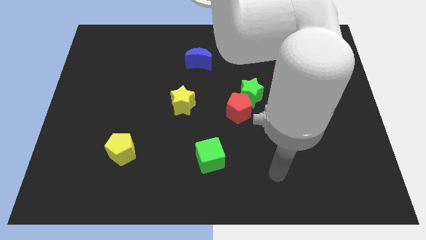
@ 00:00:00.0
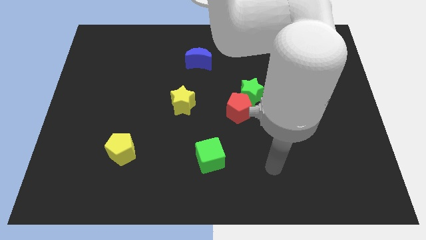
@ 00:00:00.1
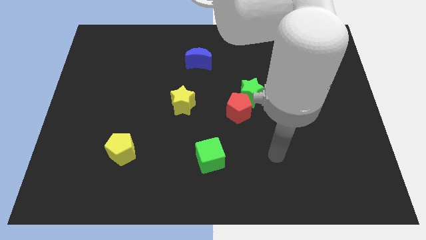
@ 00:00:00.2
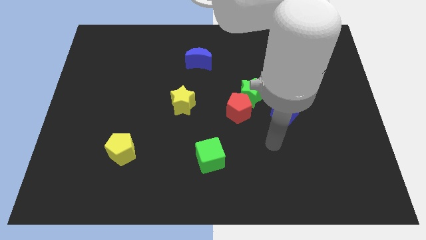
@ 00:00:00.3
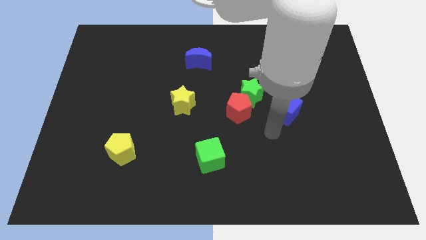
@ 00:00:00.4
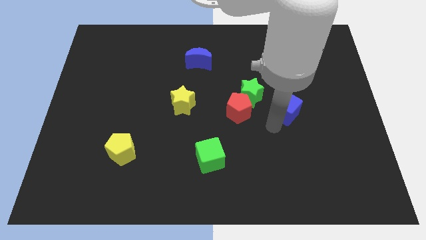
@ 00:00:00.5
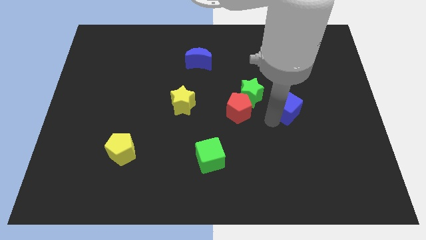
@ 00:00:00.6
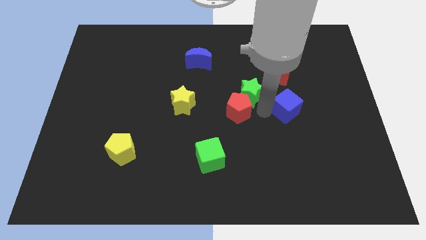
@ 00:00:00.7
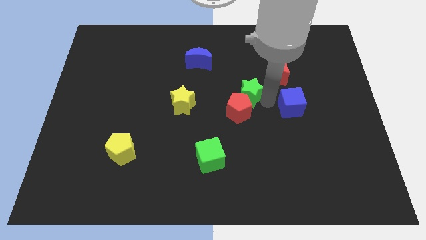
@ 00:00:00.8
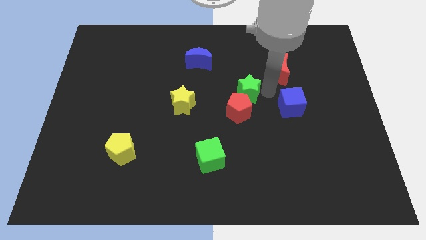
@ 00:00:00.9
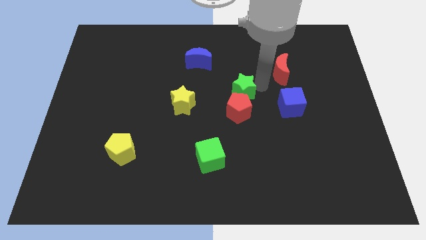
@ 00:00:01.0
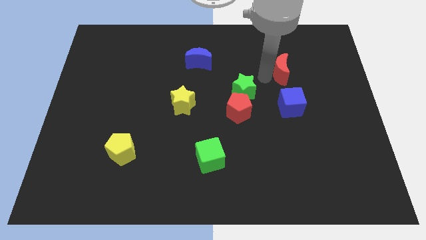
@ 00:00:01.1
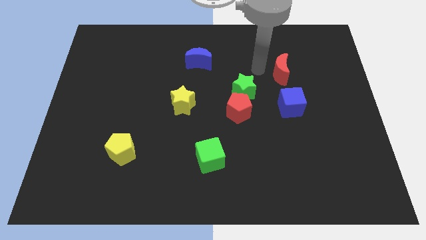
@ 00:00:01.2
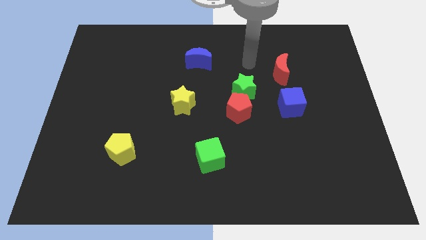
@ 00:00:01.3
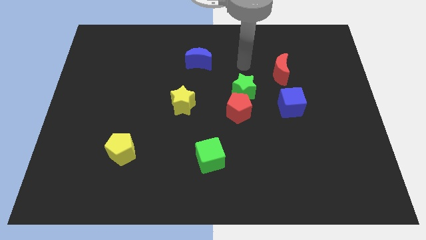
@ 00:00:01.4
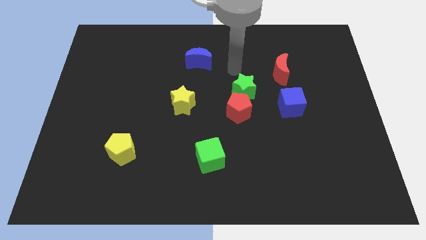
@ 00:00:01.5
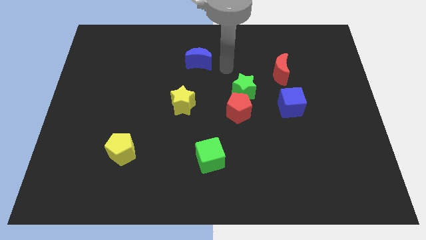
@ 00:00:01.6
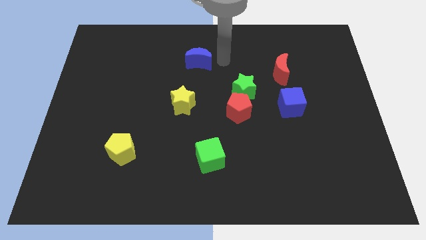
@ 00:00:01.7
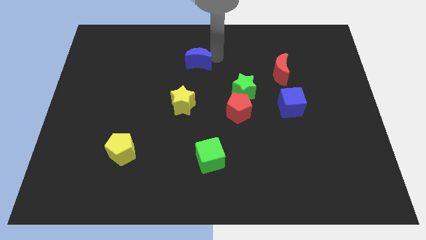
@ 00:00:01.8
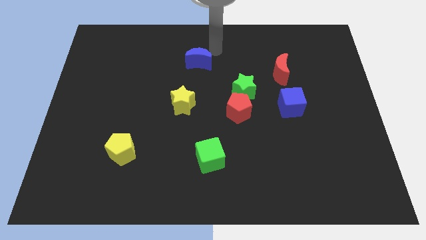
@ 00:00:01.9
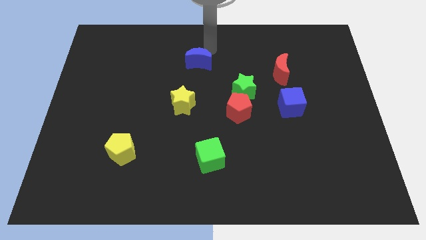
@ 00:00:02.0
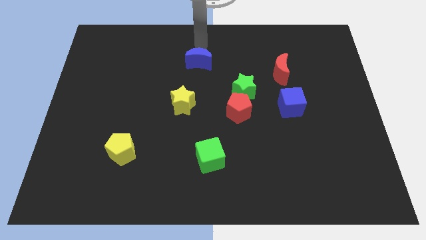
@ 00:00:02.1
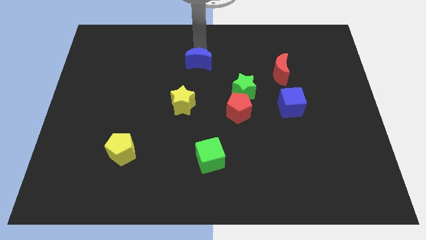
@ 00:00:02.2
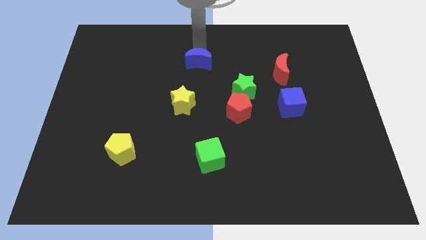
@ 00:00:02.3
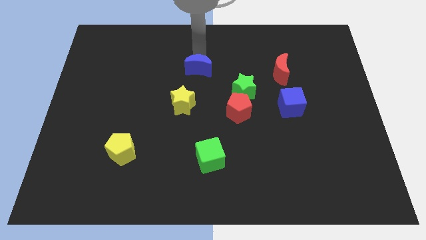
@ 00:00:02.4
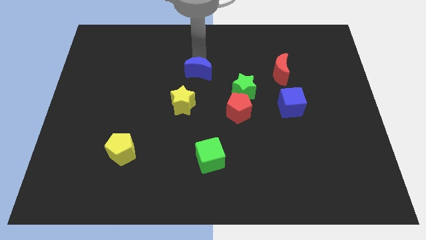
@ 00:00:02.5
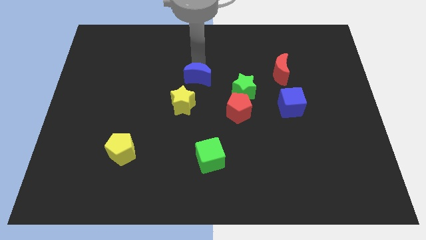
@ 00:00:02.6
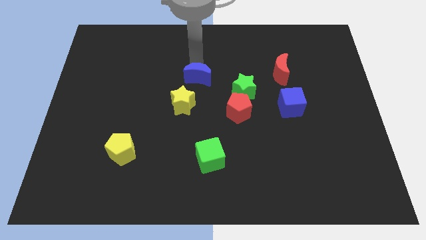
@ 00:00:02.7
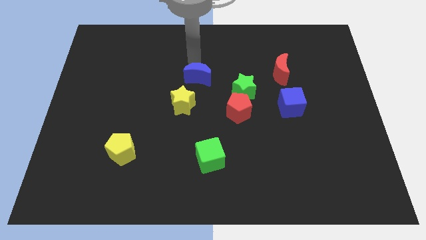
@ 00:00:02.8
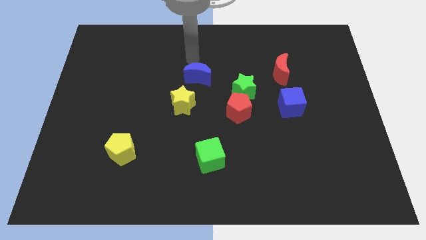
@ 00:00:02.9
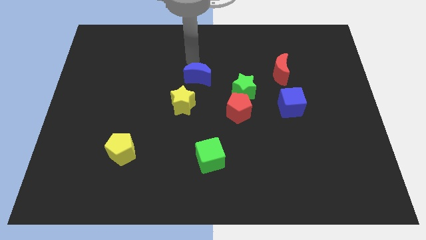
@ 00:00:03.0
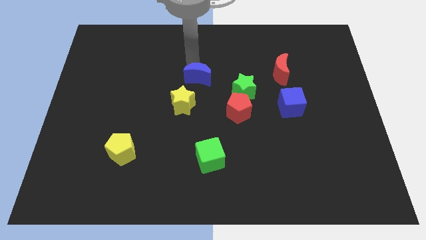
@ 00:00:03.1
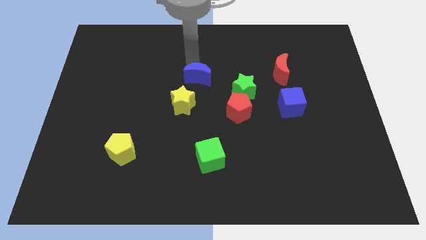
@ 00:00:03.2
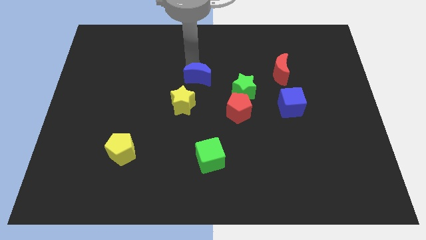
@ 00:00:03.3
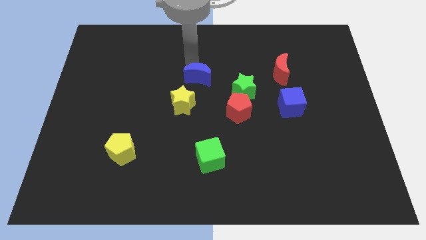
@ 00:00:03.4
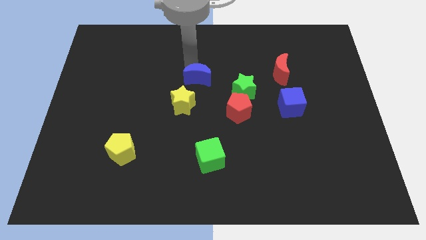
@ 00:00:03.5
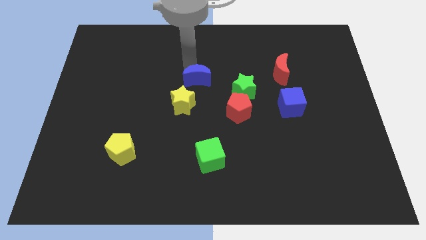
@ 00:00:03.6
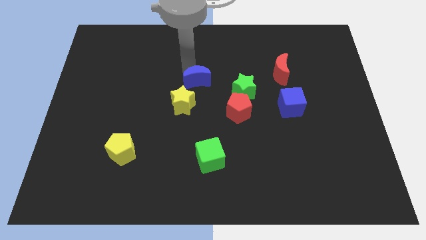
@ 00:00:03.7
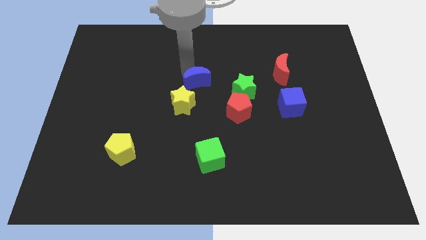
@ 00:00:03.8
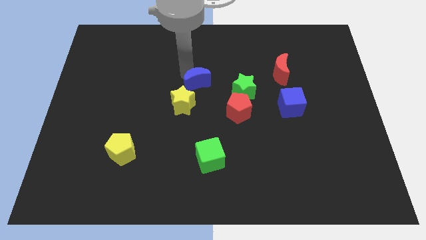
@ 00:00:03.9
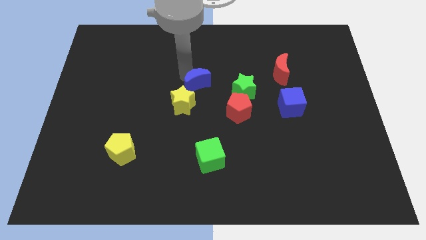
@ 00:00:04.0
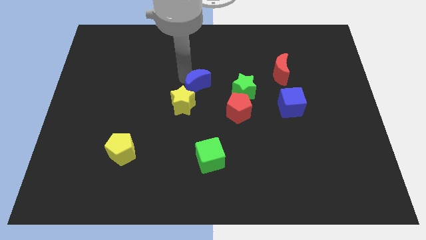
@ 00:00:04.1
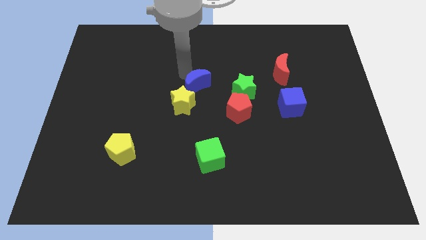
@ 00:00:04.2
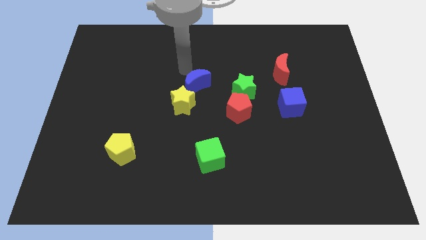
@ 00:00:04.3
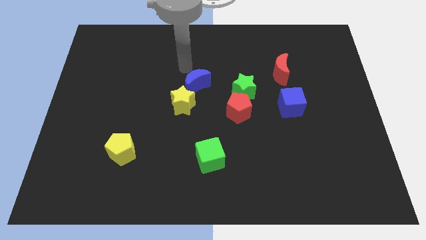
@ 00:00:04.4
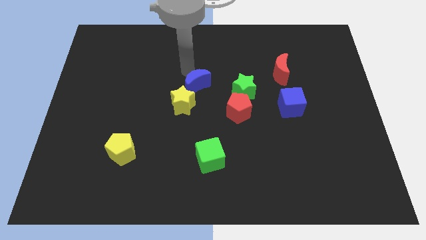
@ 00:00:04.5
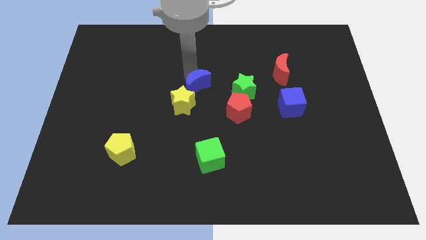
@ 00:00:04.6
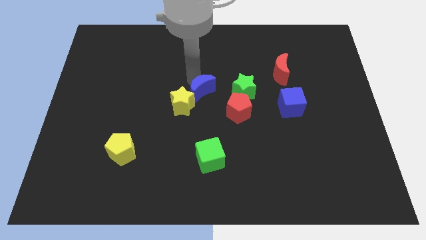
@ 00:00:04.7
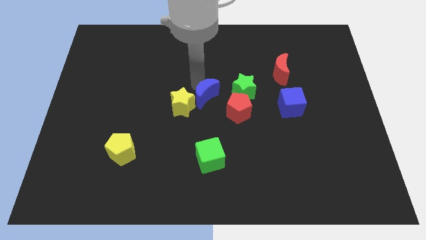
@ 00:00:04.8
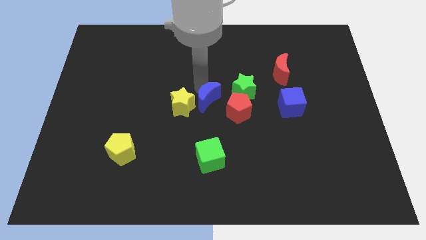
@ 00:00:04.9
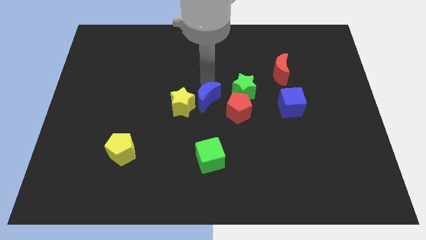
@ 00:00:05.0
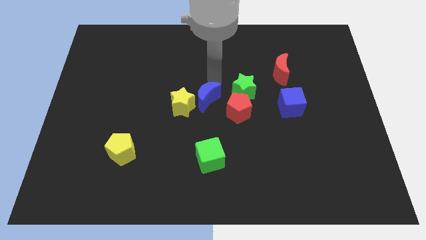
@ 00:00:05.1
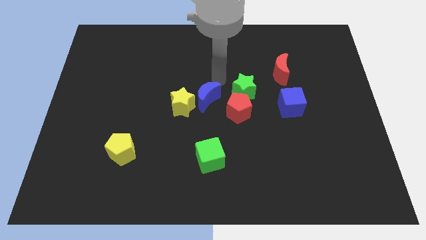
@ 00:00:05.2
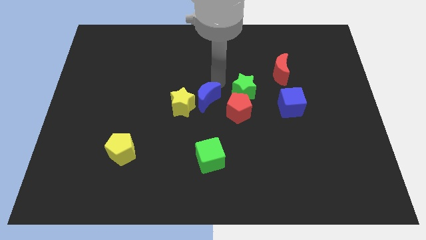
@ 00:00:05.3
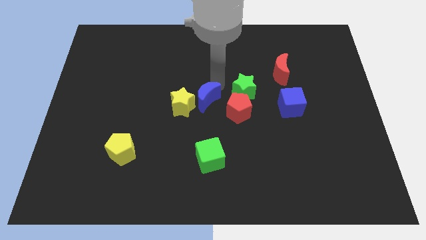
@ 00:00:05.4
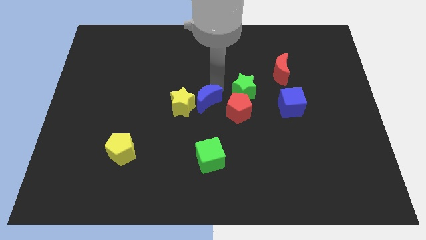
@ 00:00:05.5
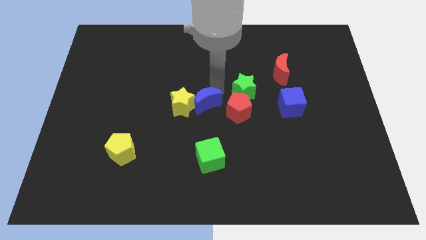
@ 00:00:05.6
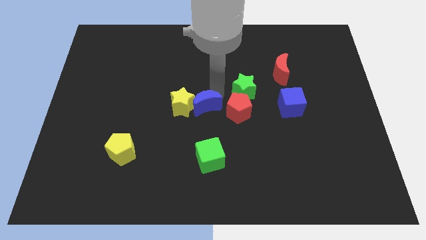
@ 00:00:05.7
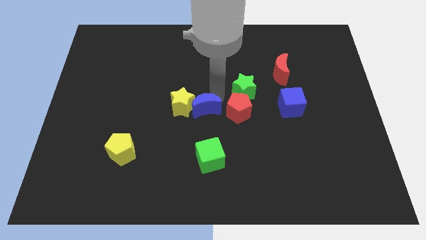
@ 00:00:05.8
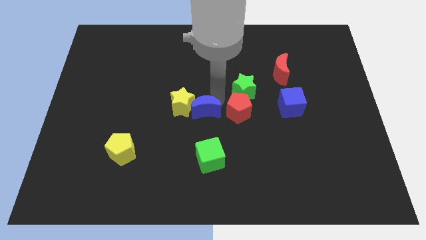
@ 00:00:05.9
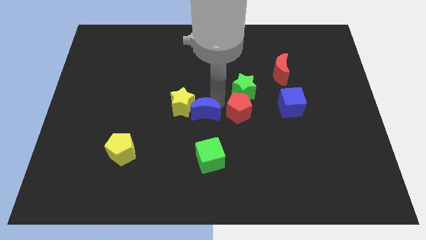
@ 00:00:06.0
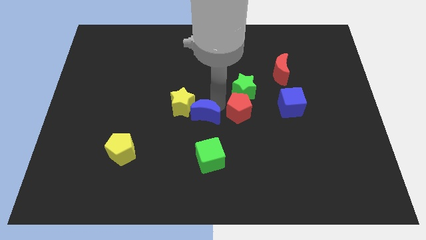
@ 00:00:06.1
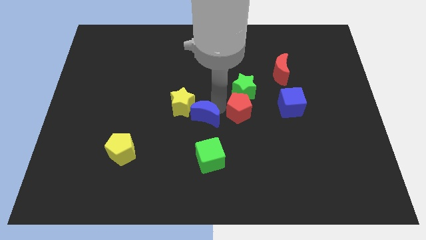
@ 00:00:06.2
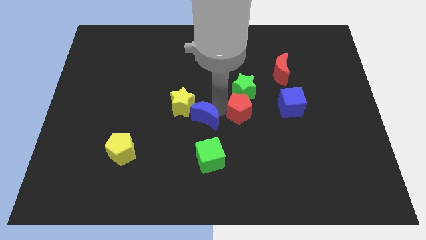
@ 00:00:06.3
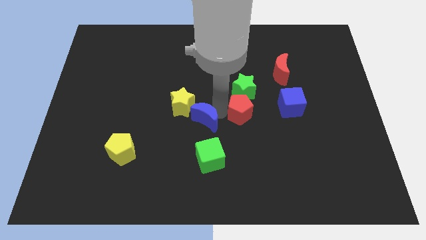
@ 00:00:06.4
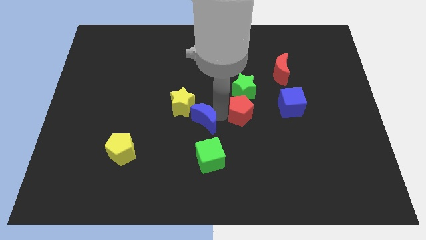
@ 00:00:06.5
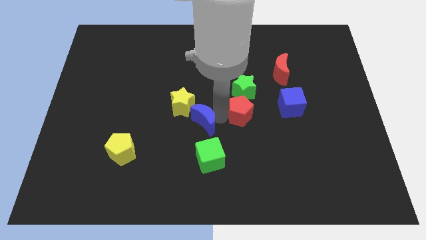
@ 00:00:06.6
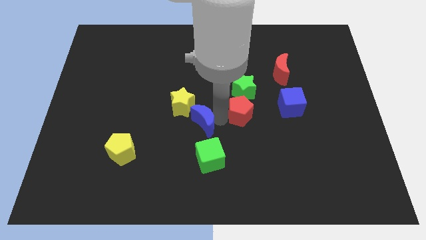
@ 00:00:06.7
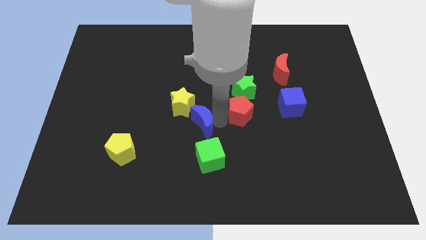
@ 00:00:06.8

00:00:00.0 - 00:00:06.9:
move the blue moon downwards

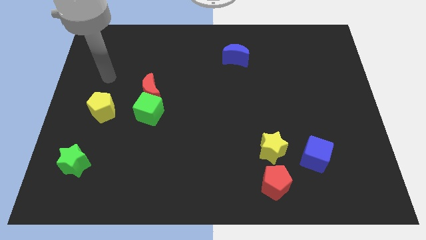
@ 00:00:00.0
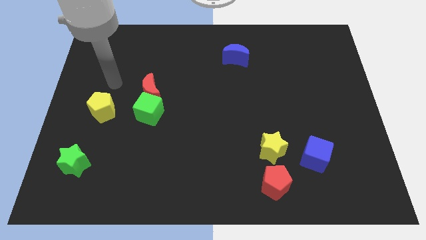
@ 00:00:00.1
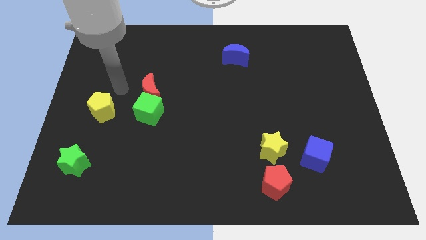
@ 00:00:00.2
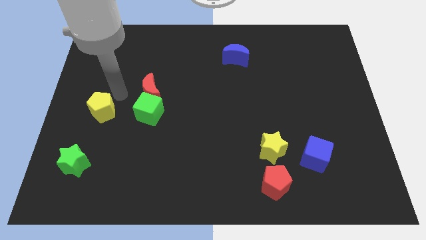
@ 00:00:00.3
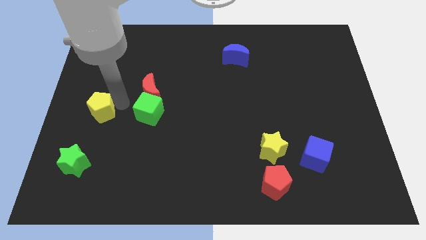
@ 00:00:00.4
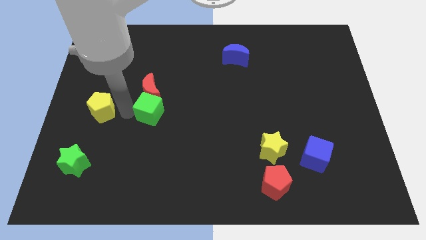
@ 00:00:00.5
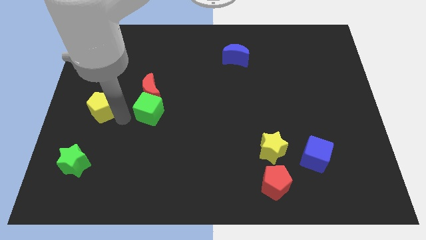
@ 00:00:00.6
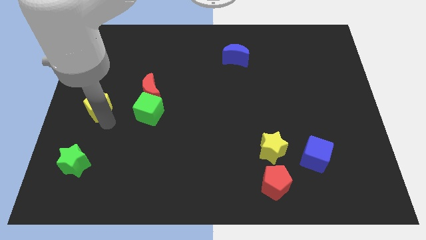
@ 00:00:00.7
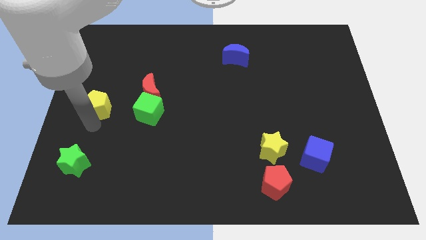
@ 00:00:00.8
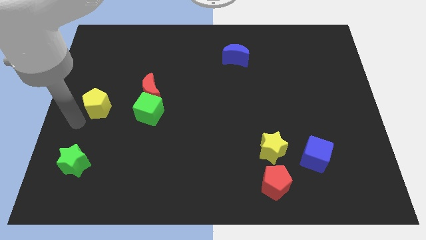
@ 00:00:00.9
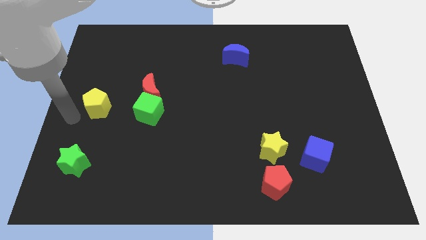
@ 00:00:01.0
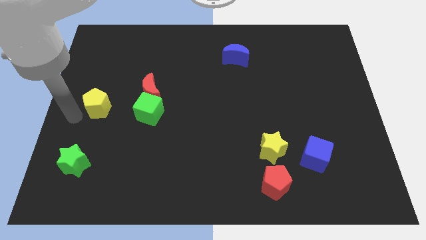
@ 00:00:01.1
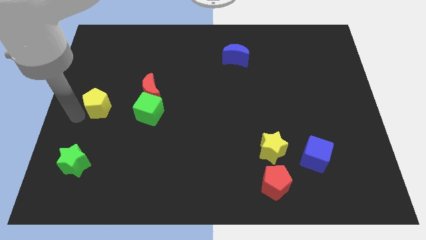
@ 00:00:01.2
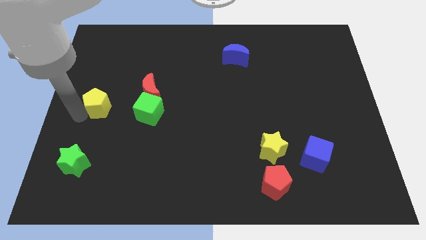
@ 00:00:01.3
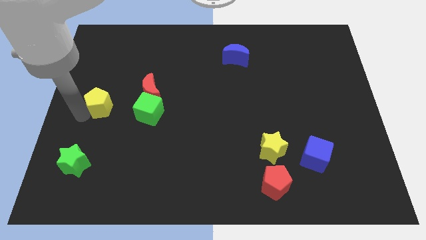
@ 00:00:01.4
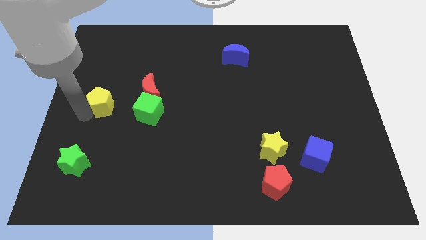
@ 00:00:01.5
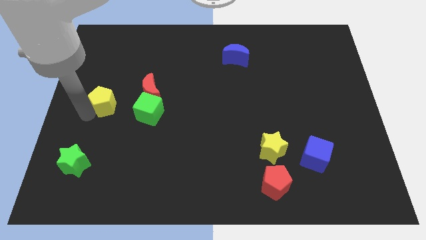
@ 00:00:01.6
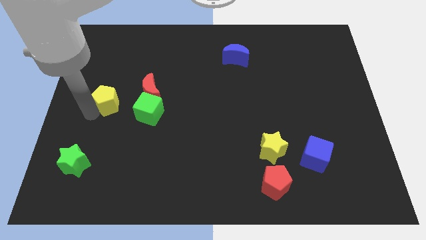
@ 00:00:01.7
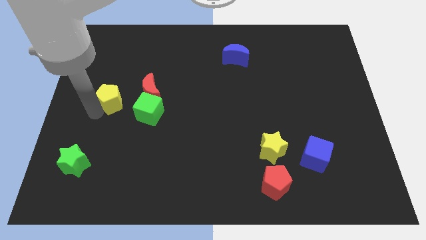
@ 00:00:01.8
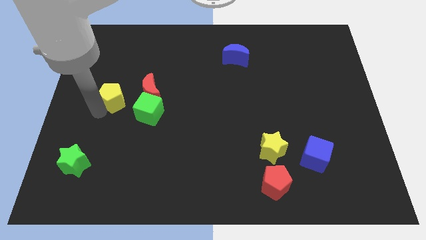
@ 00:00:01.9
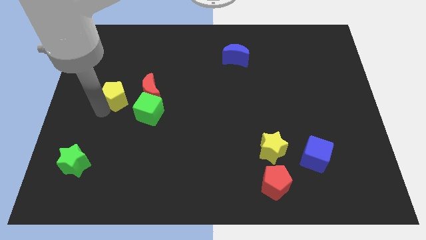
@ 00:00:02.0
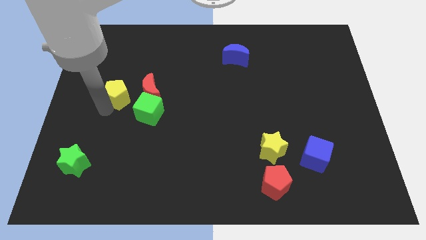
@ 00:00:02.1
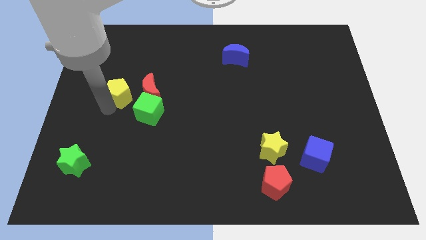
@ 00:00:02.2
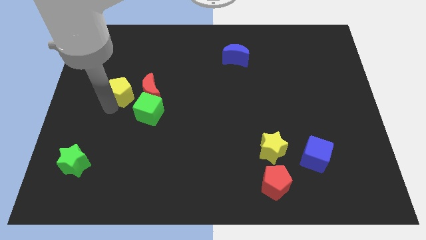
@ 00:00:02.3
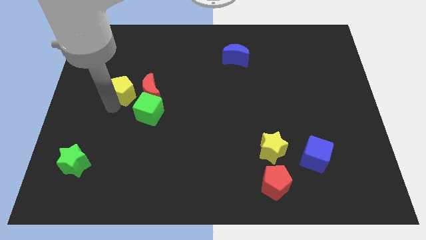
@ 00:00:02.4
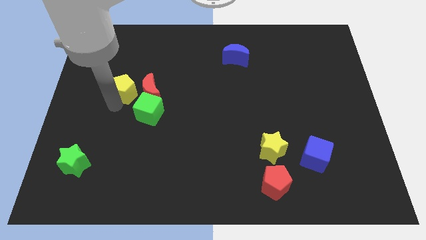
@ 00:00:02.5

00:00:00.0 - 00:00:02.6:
move the yellow pentagon up and then right a little
